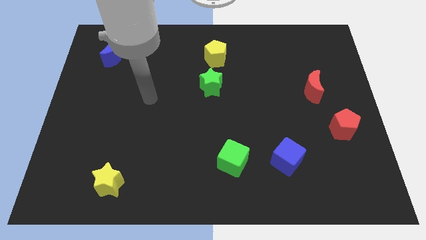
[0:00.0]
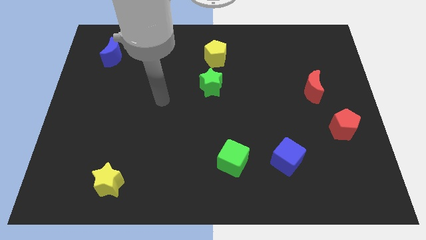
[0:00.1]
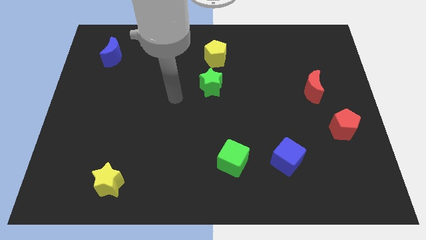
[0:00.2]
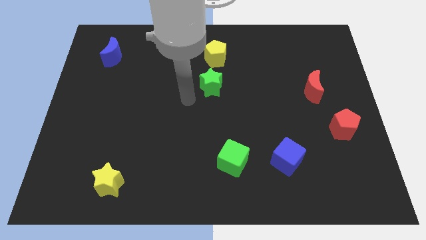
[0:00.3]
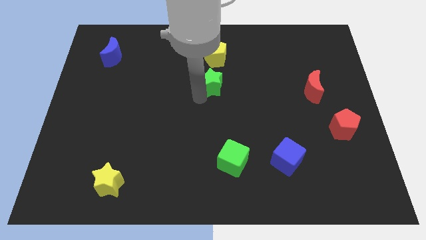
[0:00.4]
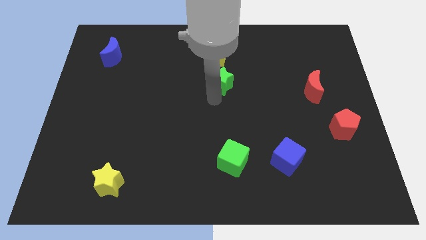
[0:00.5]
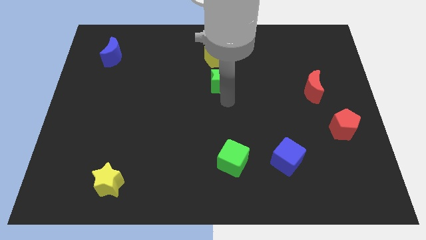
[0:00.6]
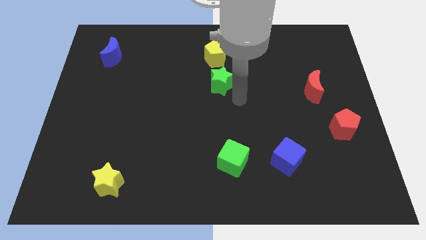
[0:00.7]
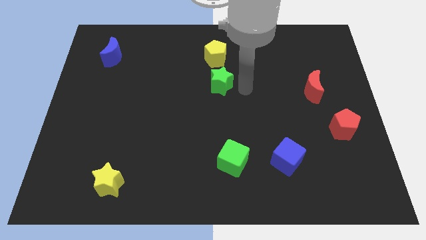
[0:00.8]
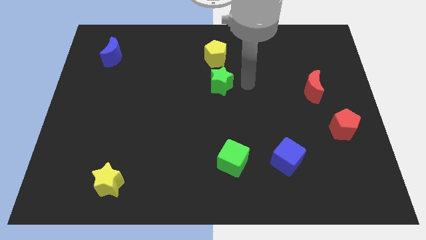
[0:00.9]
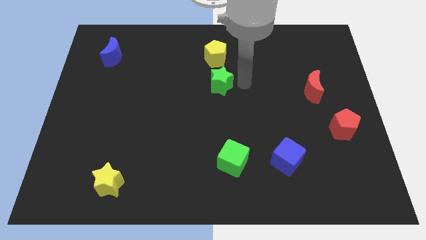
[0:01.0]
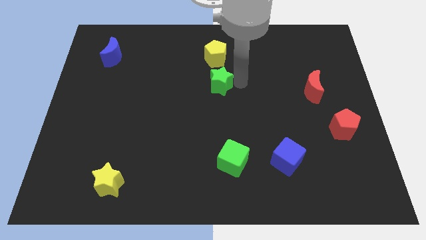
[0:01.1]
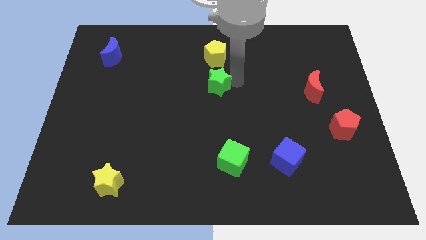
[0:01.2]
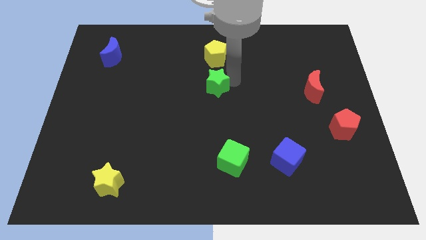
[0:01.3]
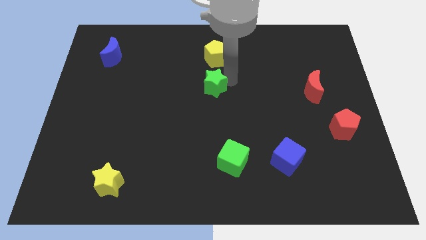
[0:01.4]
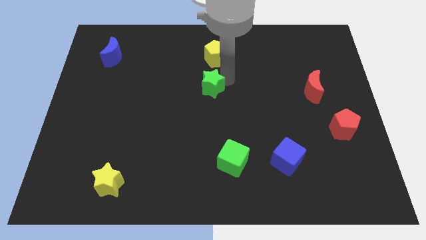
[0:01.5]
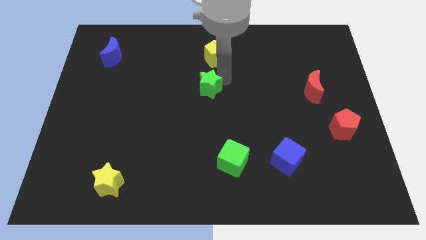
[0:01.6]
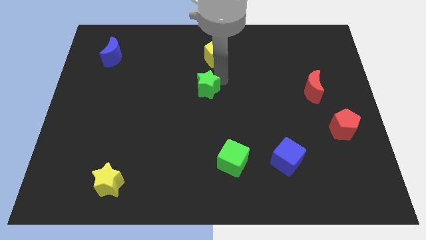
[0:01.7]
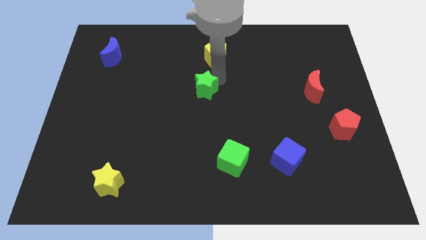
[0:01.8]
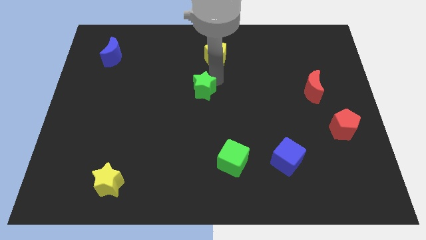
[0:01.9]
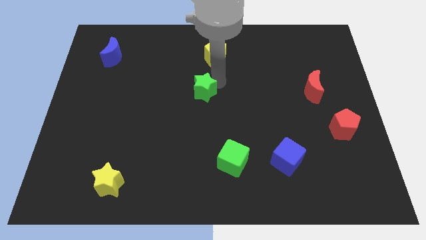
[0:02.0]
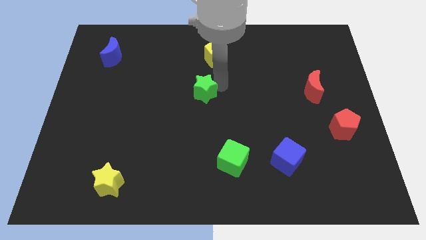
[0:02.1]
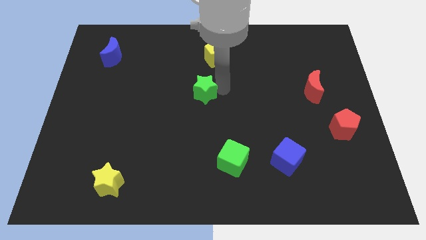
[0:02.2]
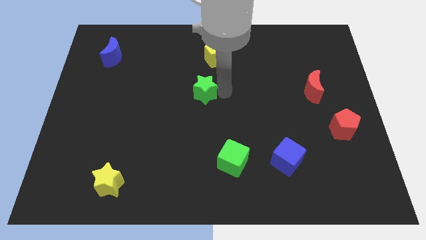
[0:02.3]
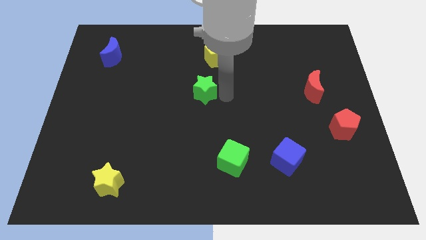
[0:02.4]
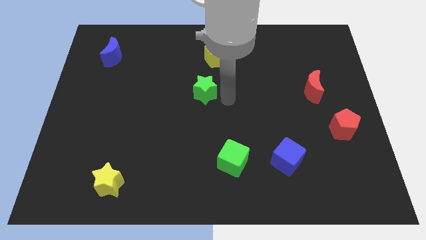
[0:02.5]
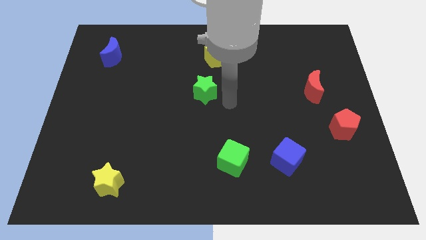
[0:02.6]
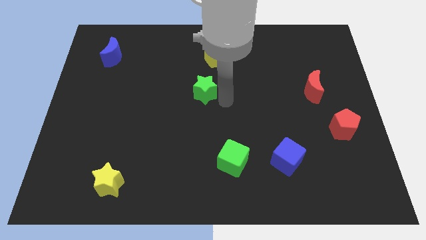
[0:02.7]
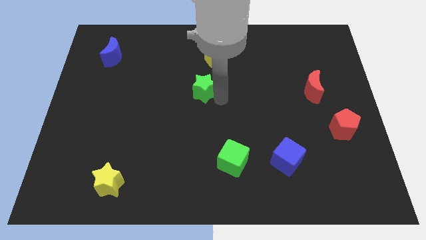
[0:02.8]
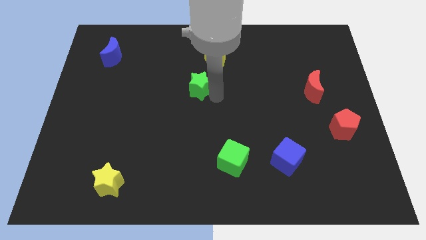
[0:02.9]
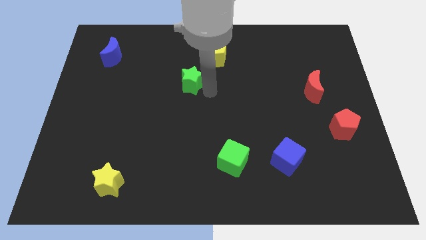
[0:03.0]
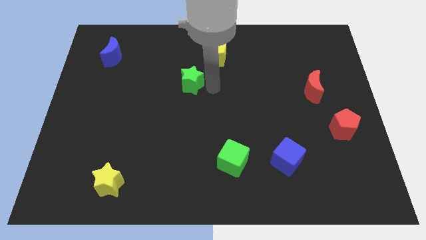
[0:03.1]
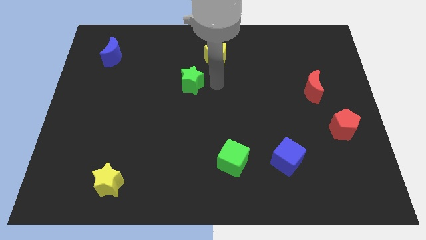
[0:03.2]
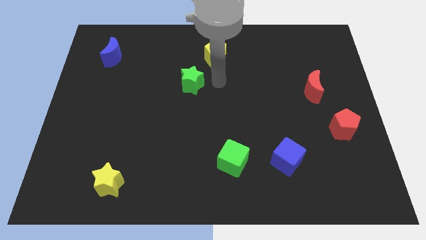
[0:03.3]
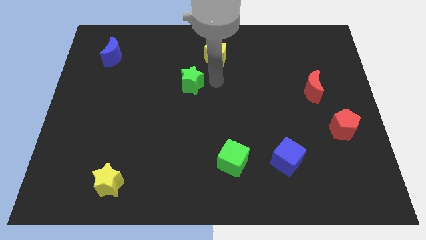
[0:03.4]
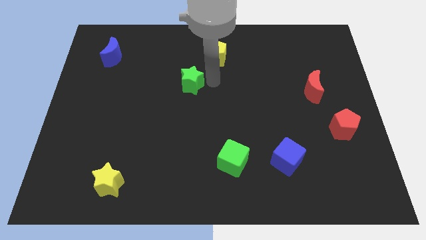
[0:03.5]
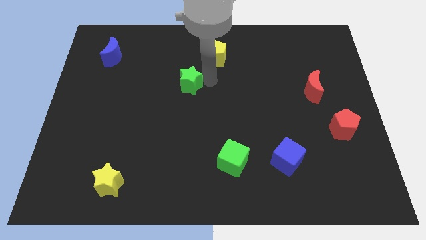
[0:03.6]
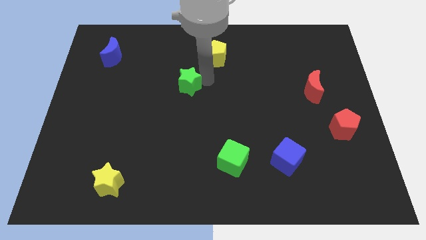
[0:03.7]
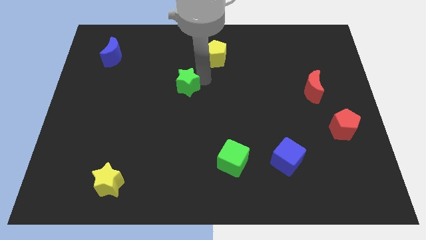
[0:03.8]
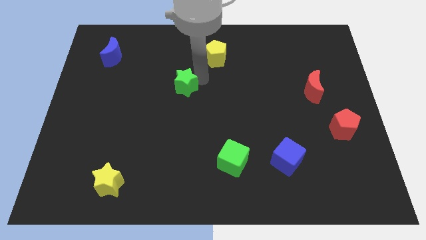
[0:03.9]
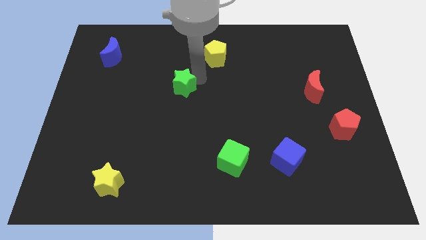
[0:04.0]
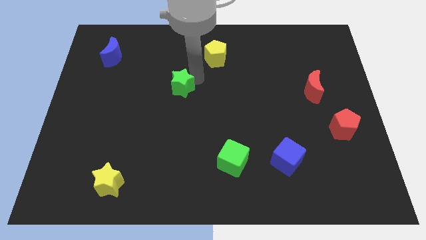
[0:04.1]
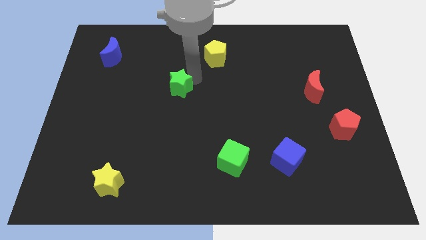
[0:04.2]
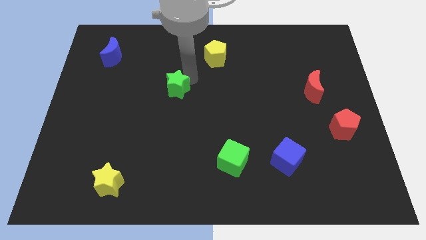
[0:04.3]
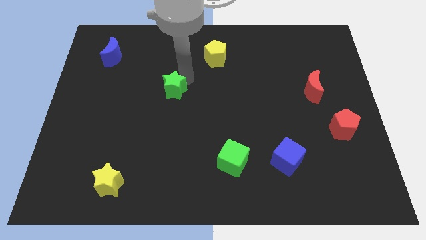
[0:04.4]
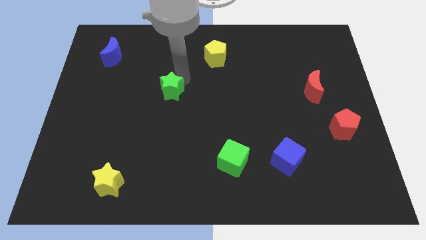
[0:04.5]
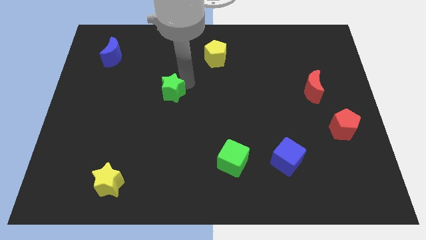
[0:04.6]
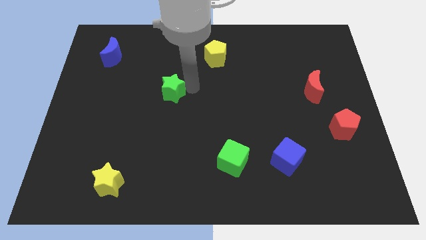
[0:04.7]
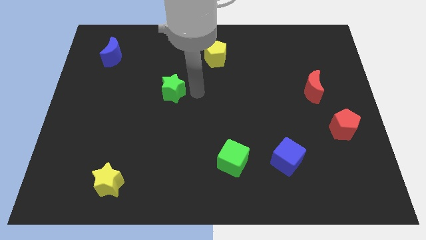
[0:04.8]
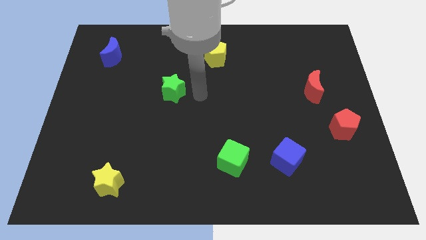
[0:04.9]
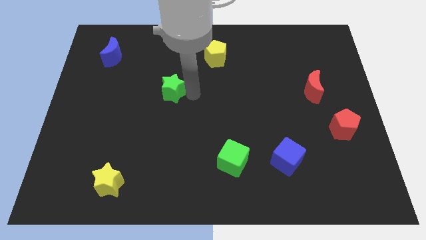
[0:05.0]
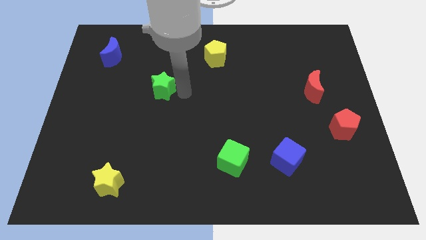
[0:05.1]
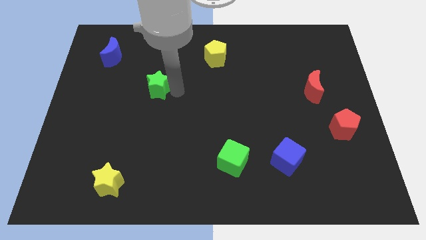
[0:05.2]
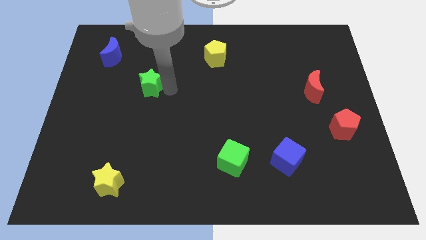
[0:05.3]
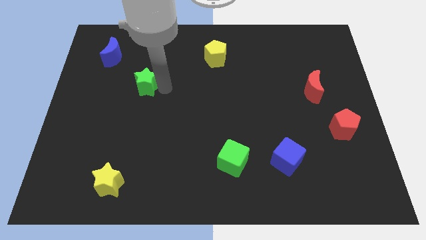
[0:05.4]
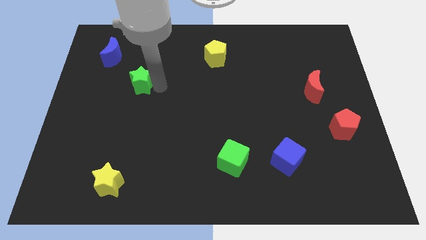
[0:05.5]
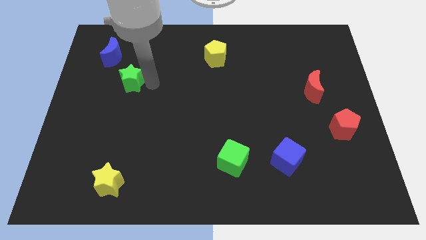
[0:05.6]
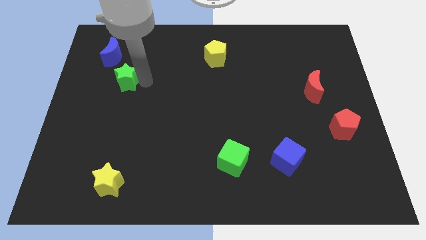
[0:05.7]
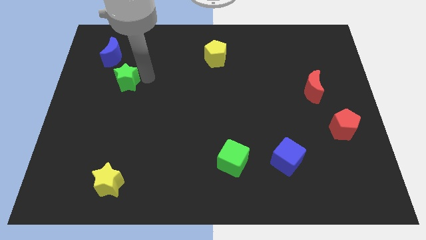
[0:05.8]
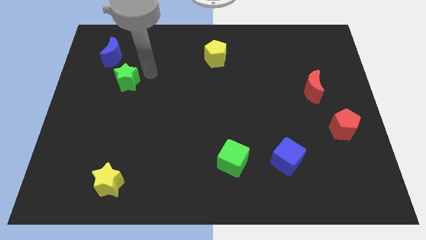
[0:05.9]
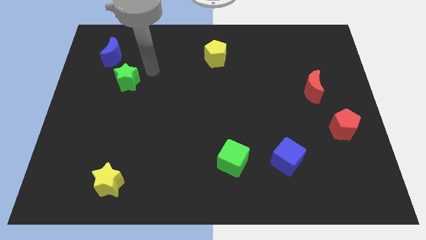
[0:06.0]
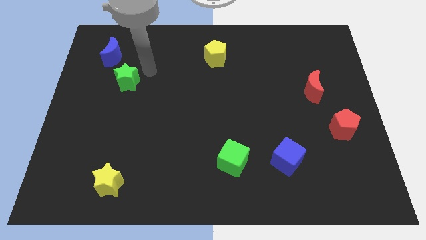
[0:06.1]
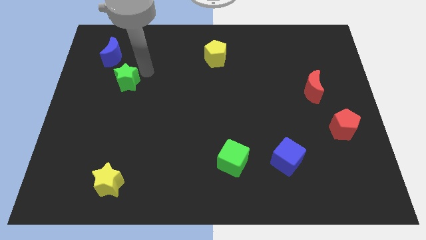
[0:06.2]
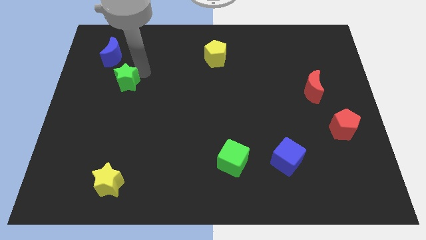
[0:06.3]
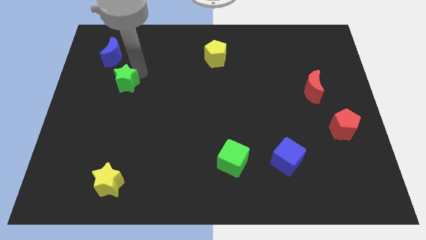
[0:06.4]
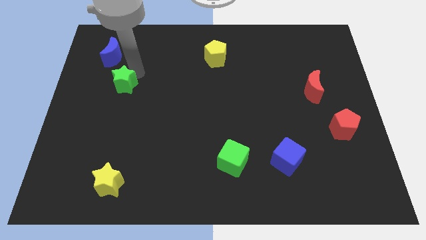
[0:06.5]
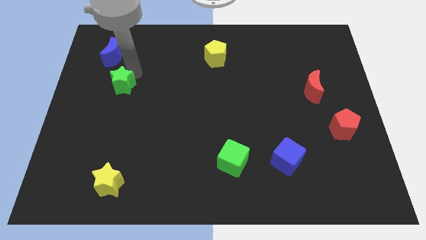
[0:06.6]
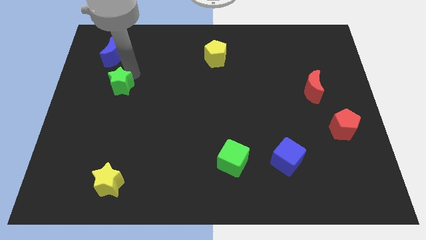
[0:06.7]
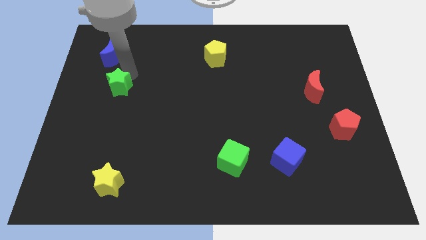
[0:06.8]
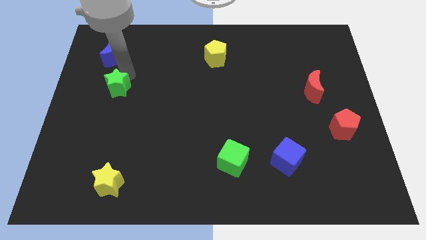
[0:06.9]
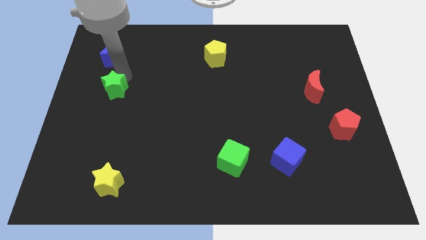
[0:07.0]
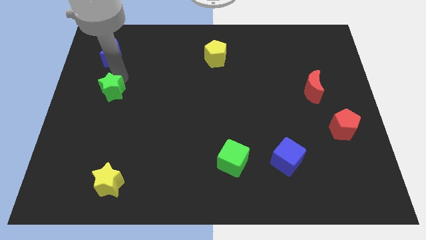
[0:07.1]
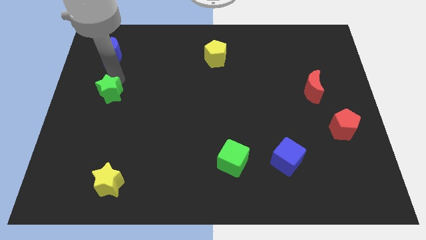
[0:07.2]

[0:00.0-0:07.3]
move the green star to the left side of the board
